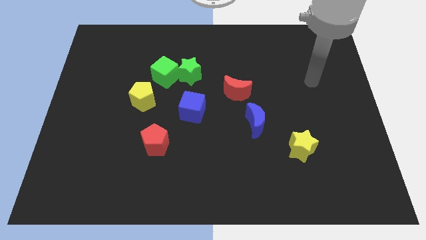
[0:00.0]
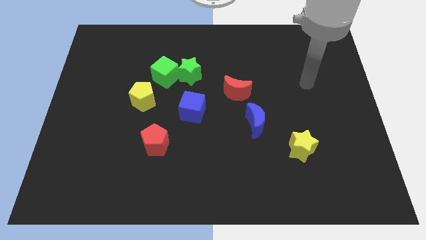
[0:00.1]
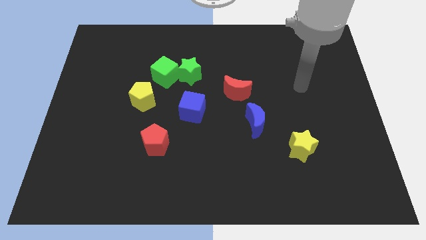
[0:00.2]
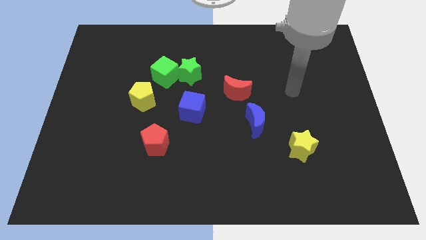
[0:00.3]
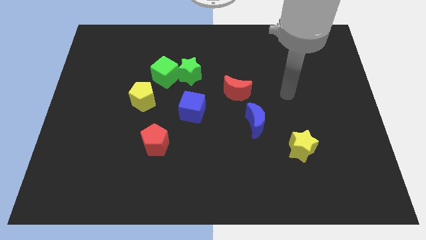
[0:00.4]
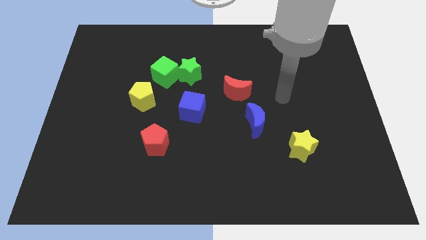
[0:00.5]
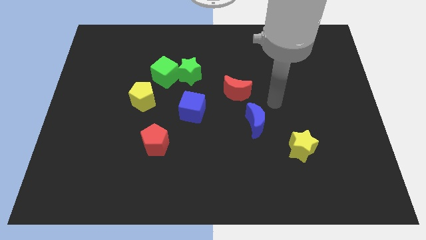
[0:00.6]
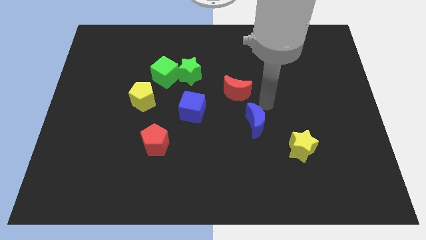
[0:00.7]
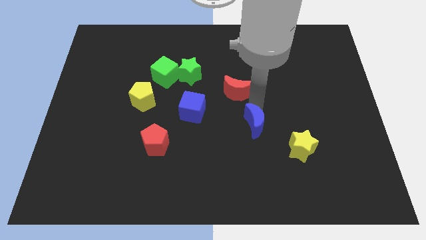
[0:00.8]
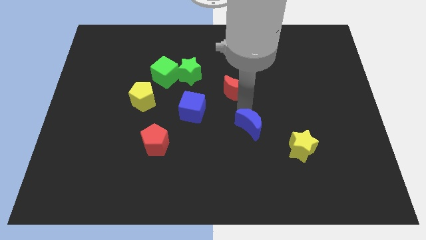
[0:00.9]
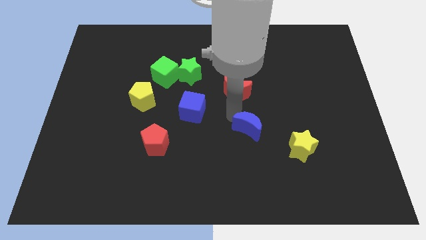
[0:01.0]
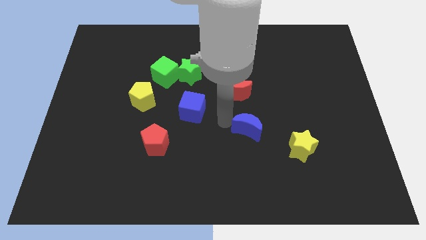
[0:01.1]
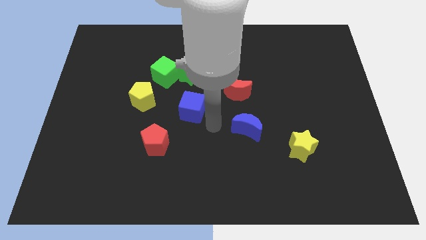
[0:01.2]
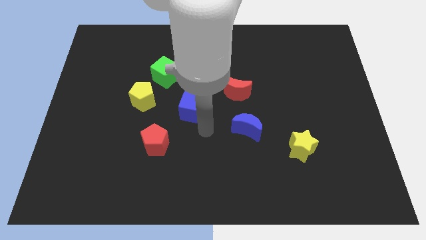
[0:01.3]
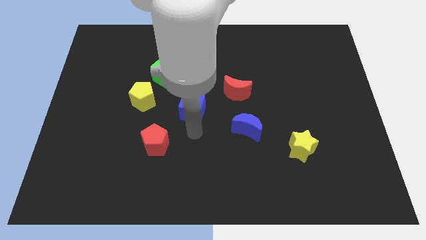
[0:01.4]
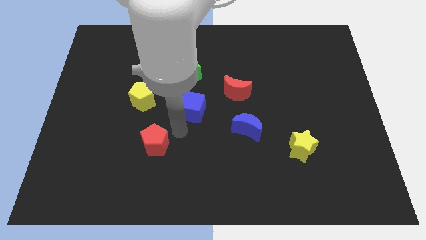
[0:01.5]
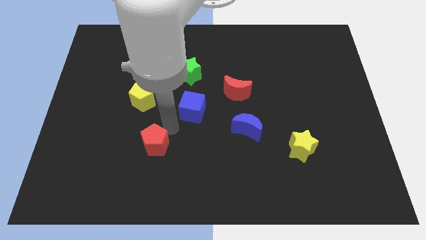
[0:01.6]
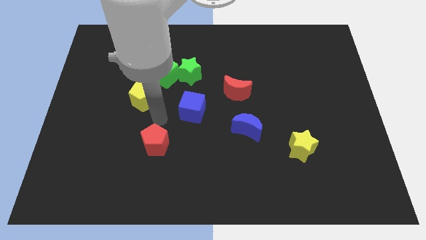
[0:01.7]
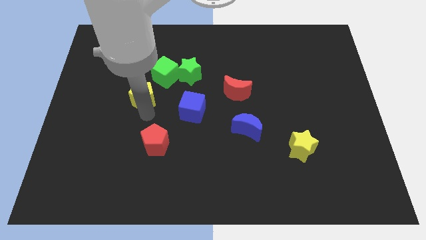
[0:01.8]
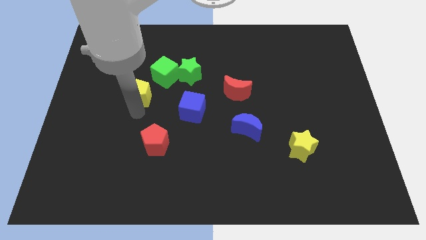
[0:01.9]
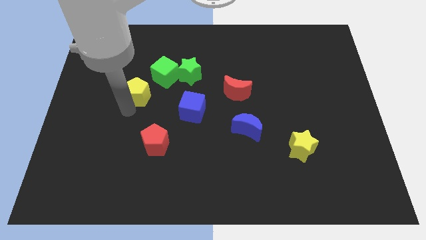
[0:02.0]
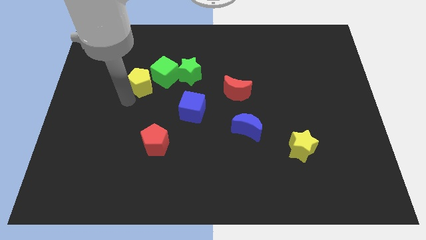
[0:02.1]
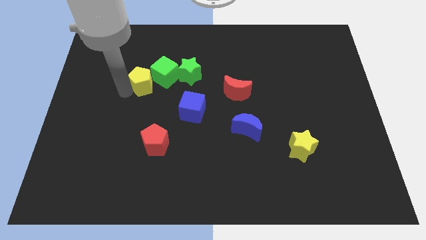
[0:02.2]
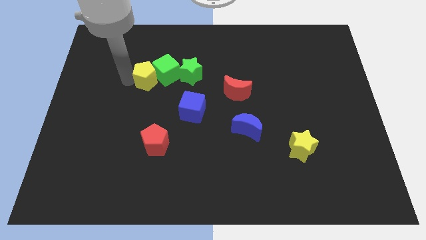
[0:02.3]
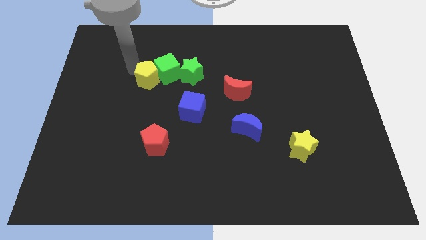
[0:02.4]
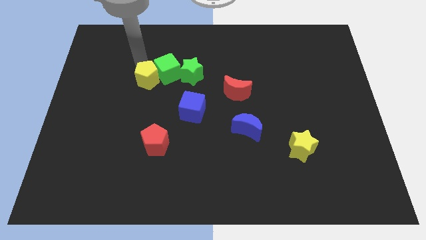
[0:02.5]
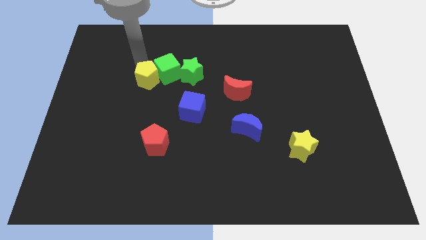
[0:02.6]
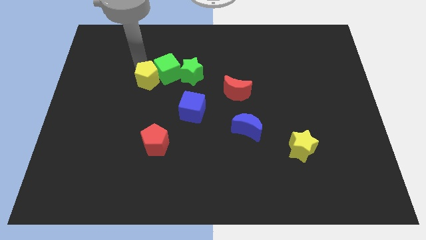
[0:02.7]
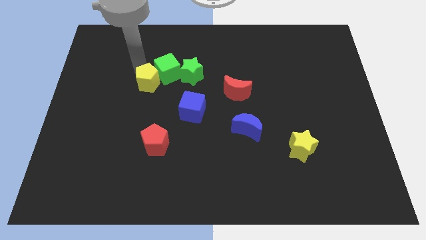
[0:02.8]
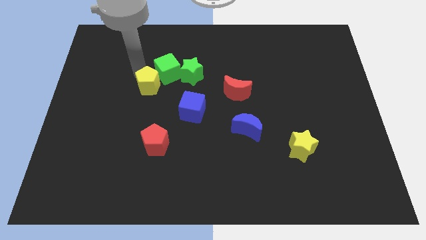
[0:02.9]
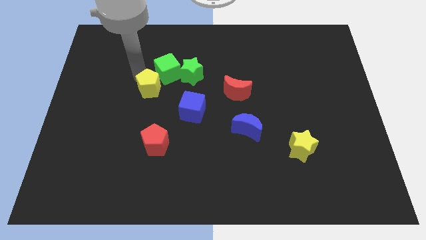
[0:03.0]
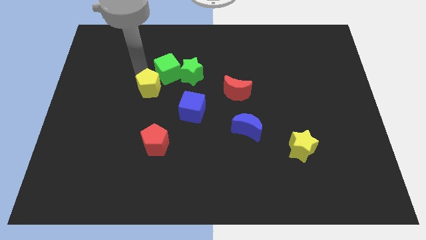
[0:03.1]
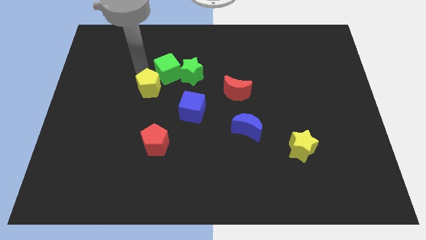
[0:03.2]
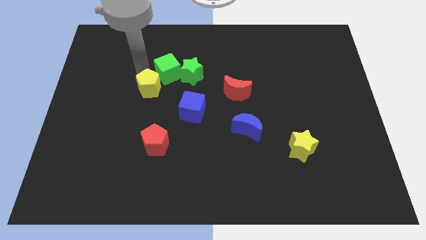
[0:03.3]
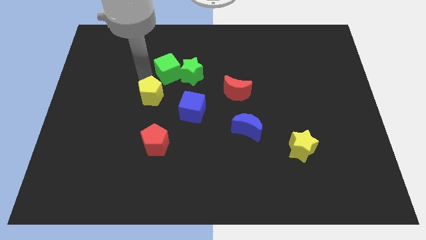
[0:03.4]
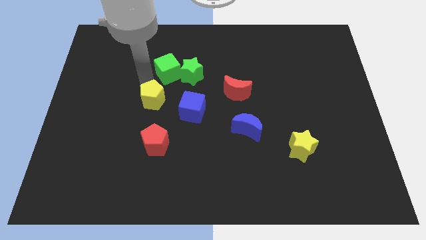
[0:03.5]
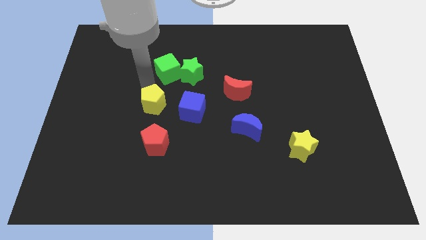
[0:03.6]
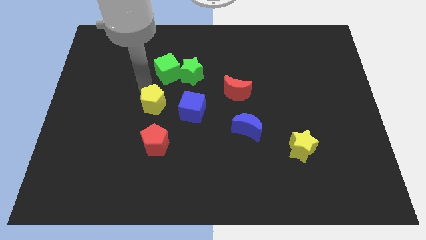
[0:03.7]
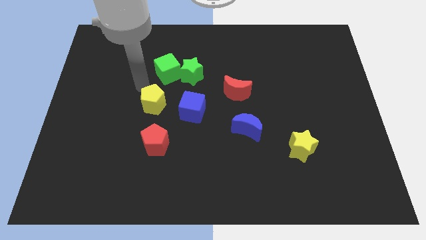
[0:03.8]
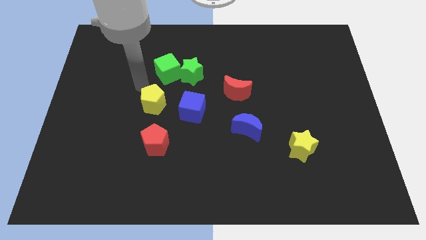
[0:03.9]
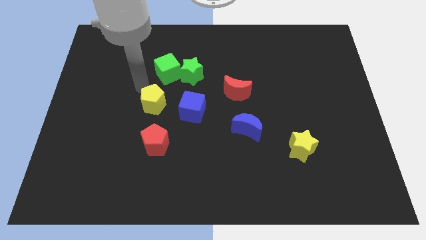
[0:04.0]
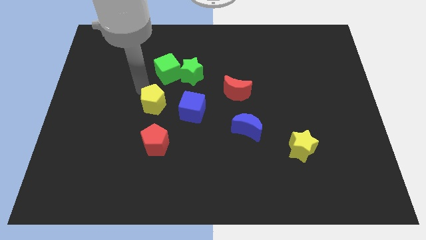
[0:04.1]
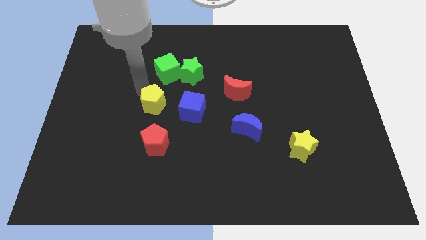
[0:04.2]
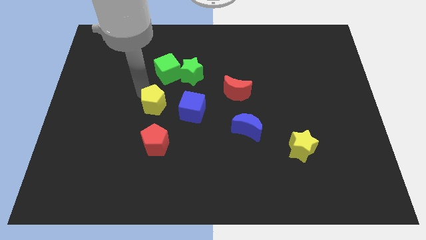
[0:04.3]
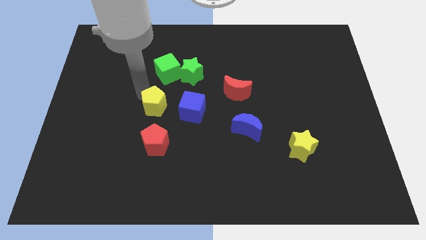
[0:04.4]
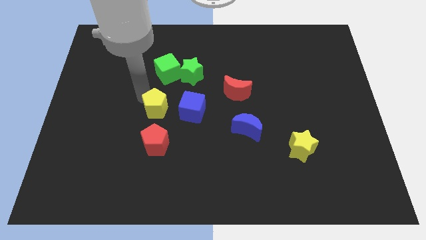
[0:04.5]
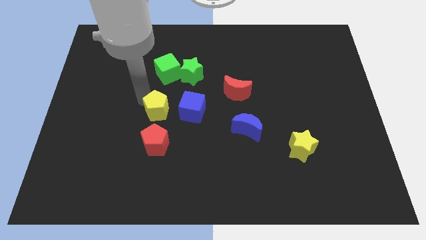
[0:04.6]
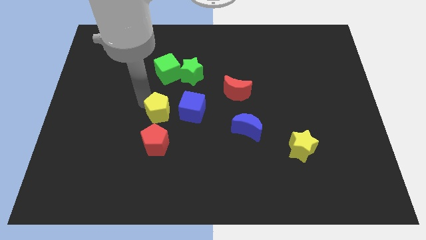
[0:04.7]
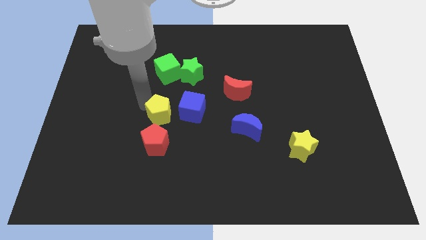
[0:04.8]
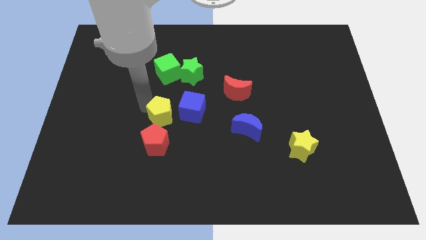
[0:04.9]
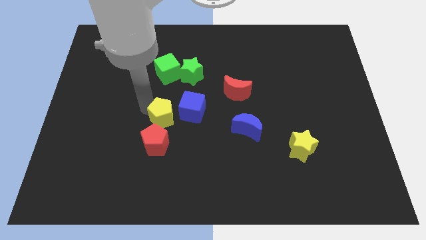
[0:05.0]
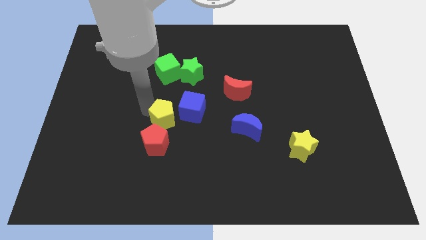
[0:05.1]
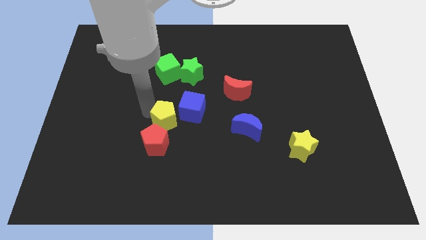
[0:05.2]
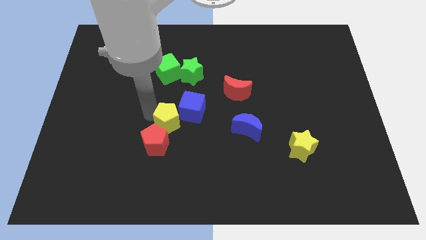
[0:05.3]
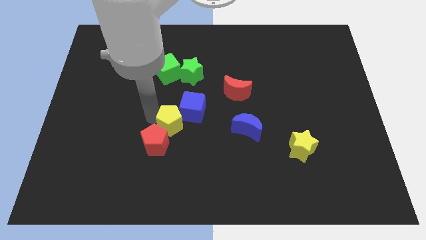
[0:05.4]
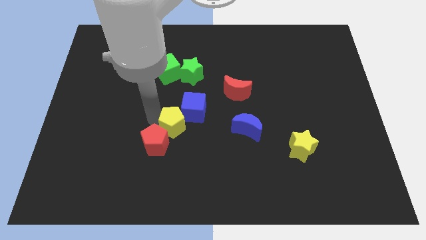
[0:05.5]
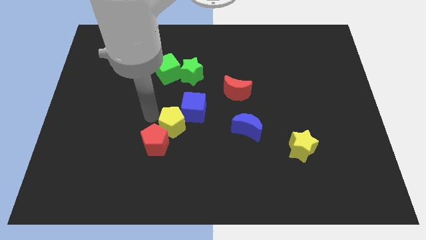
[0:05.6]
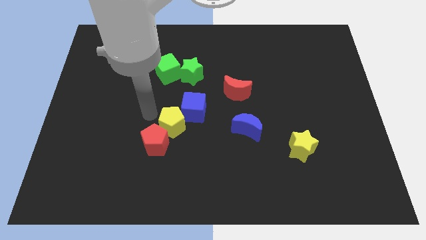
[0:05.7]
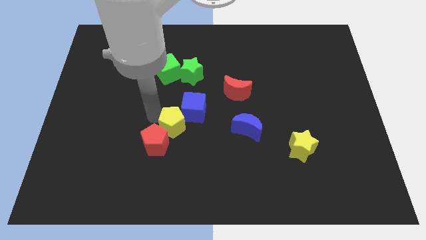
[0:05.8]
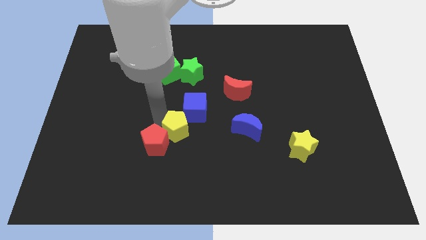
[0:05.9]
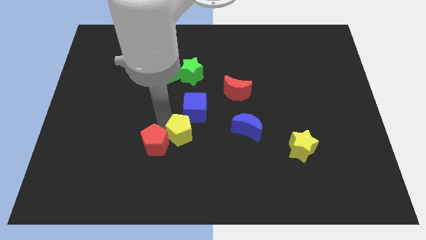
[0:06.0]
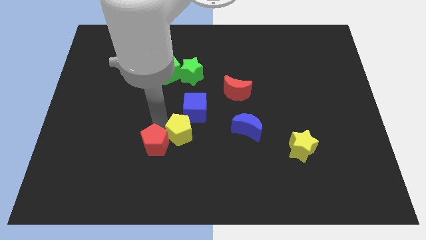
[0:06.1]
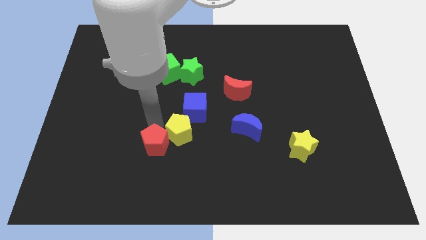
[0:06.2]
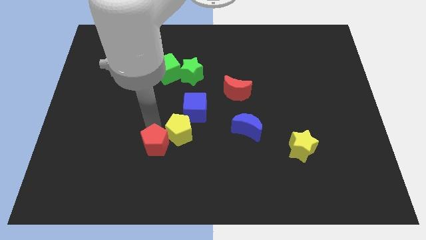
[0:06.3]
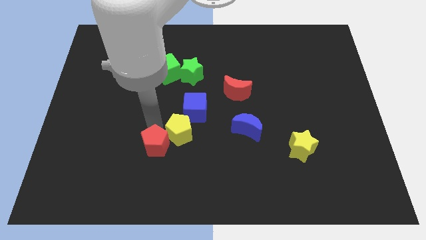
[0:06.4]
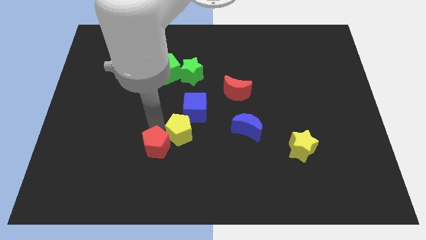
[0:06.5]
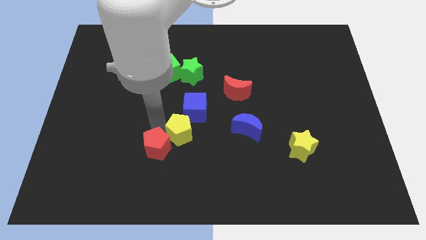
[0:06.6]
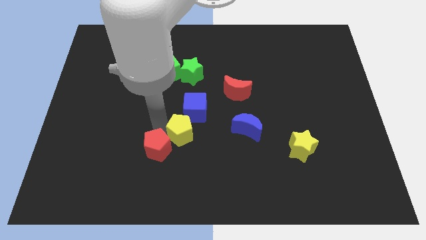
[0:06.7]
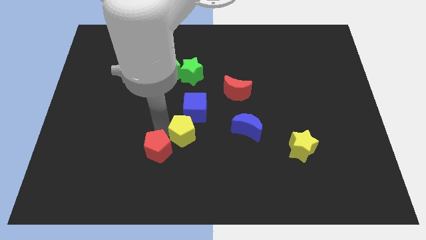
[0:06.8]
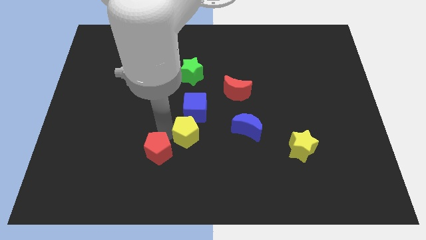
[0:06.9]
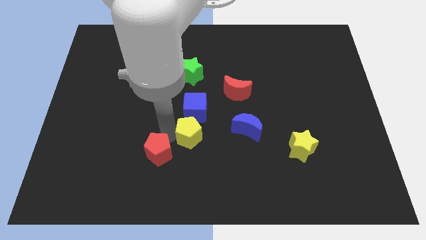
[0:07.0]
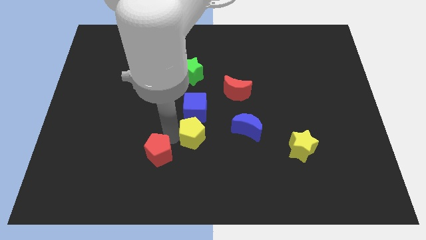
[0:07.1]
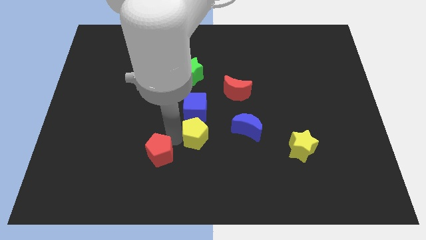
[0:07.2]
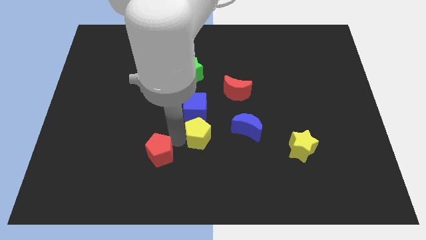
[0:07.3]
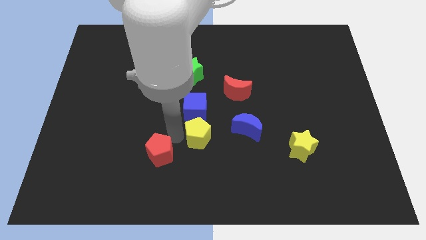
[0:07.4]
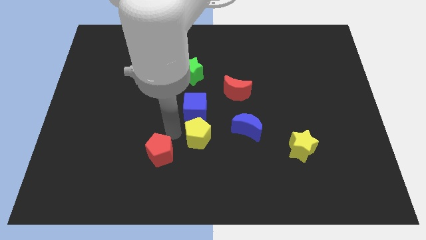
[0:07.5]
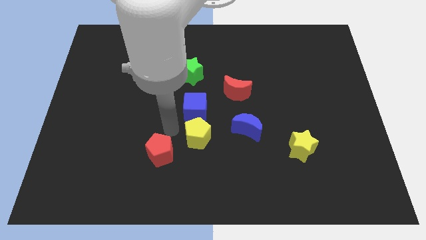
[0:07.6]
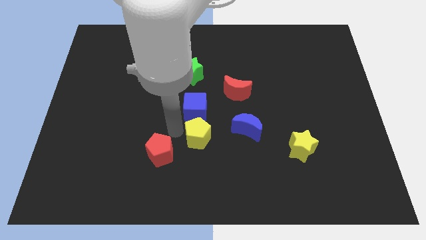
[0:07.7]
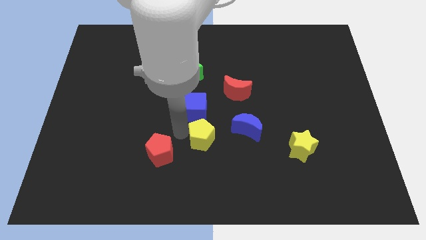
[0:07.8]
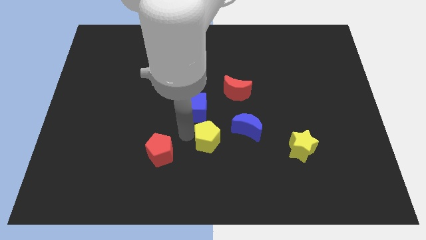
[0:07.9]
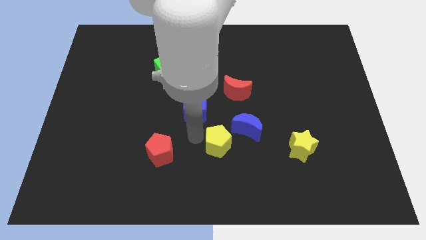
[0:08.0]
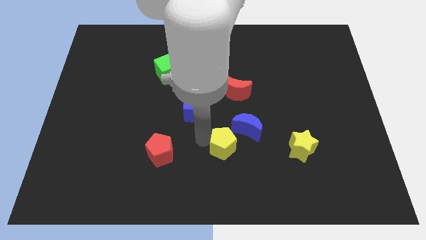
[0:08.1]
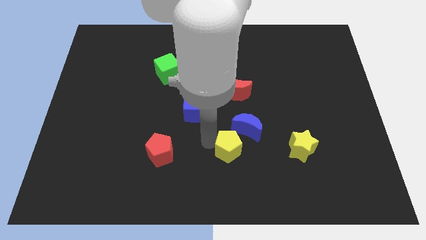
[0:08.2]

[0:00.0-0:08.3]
put the yellow pentagon to the bottom of the blue moon
